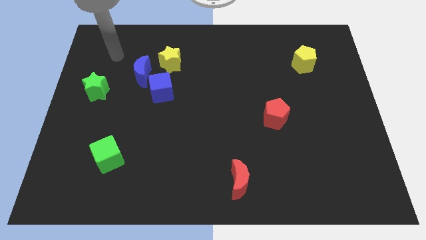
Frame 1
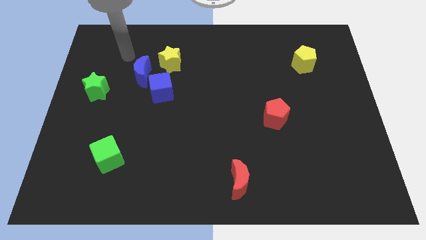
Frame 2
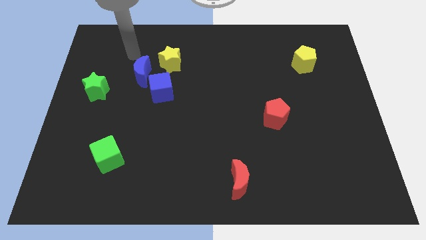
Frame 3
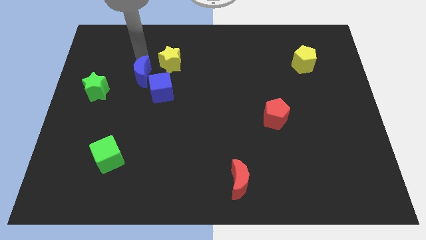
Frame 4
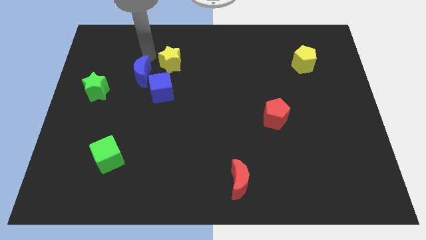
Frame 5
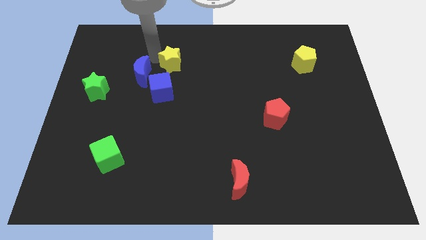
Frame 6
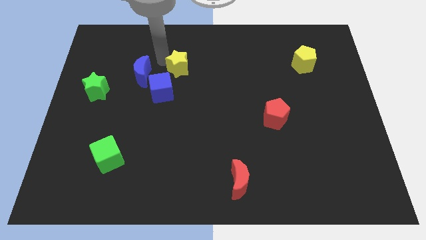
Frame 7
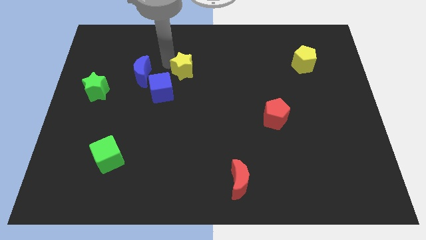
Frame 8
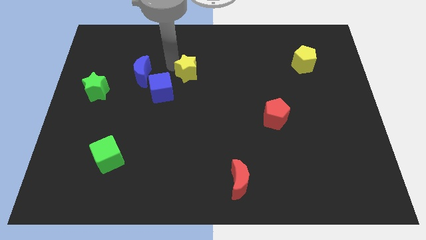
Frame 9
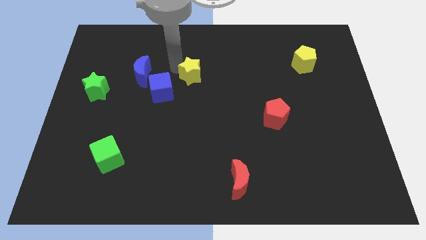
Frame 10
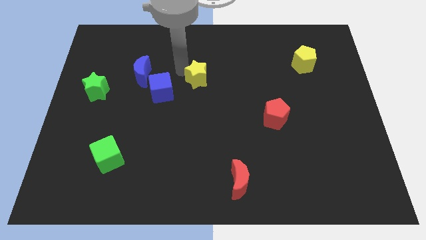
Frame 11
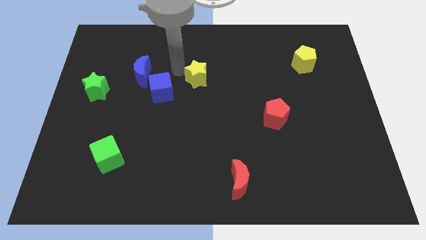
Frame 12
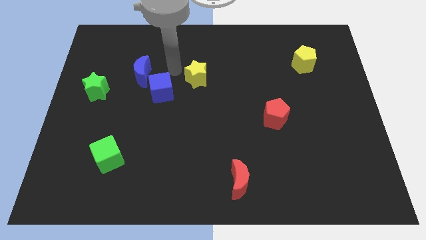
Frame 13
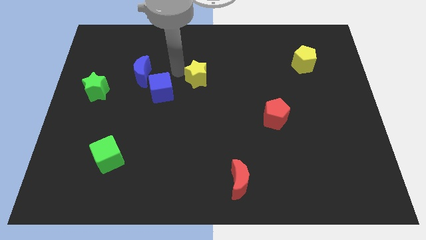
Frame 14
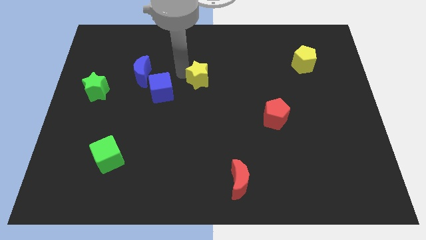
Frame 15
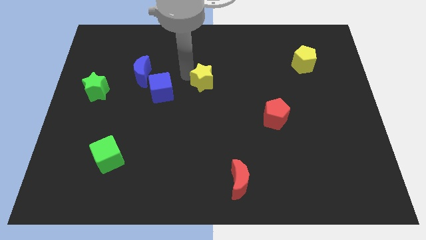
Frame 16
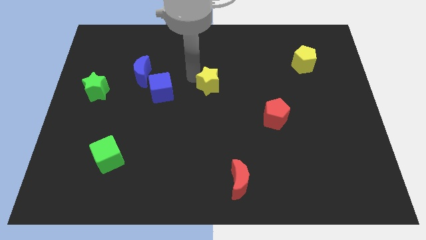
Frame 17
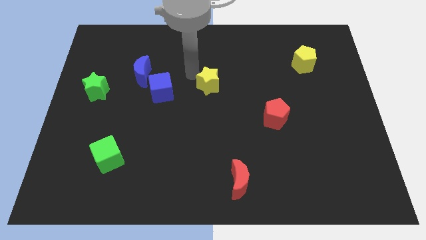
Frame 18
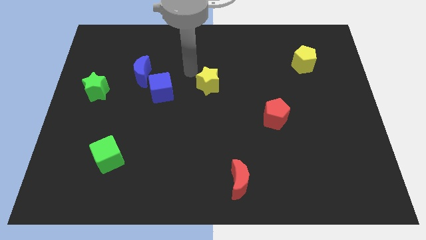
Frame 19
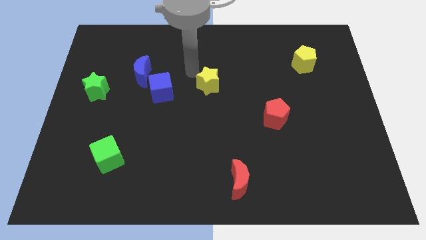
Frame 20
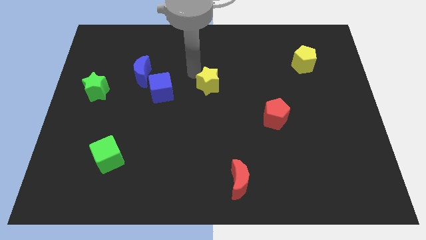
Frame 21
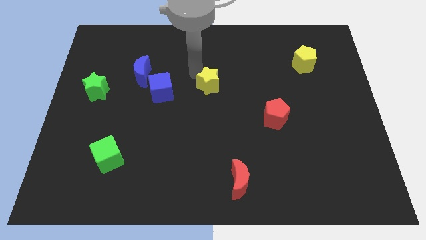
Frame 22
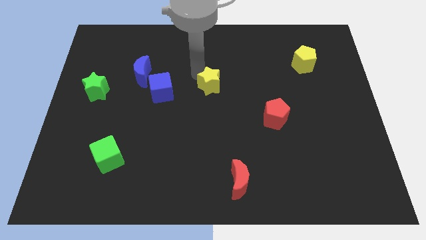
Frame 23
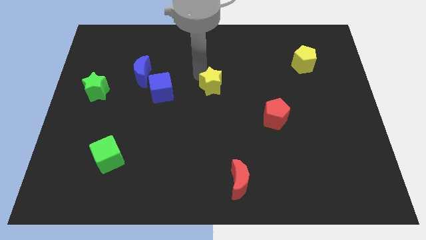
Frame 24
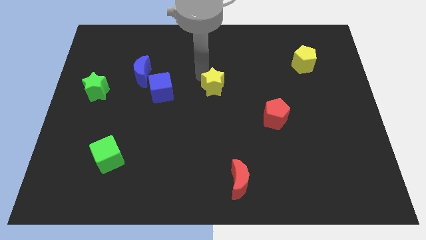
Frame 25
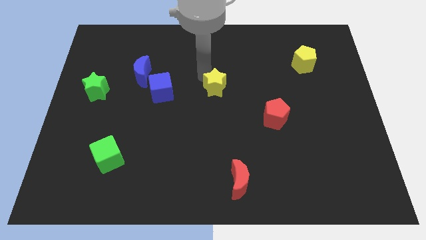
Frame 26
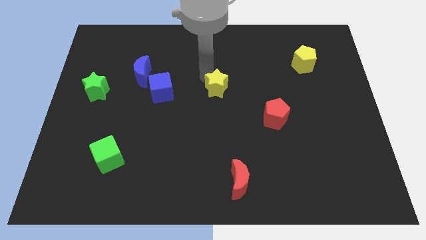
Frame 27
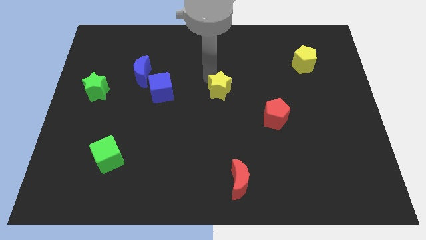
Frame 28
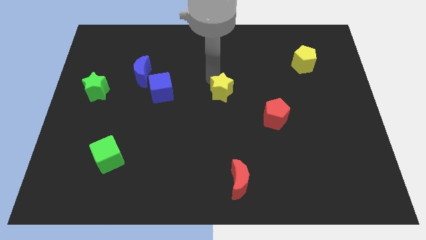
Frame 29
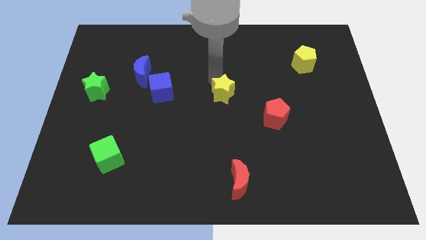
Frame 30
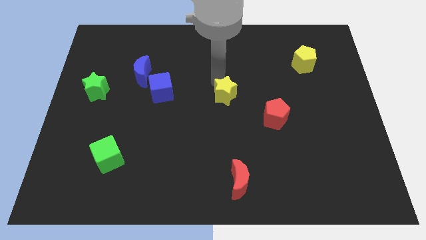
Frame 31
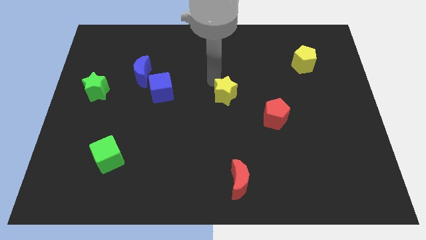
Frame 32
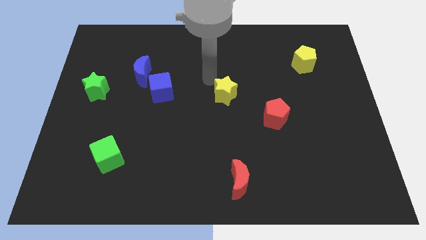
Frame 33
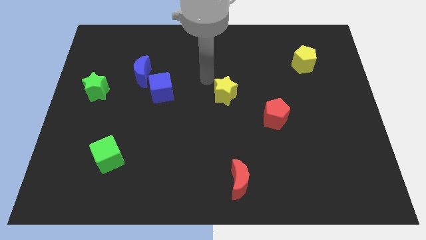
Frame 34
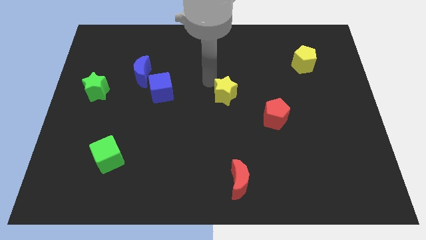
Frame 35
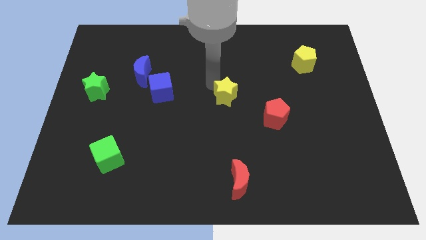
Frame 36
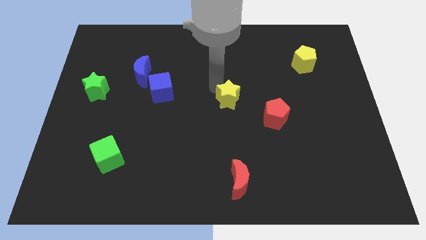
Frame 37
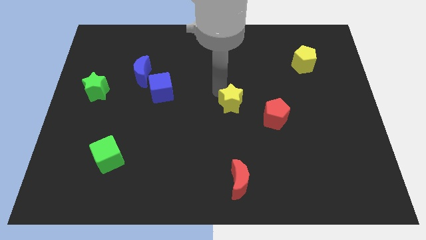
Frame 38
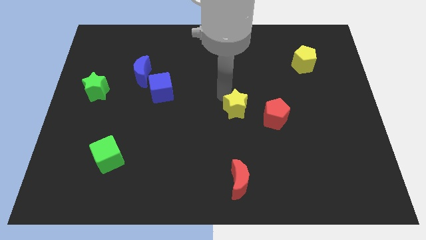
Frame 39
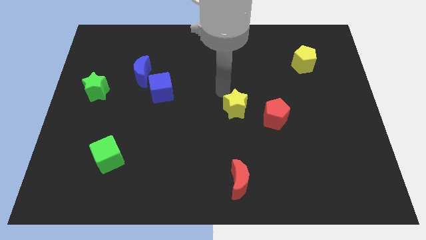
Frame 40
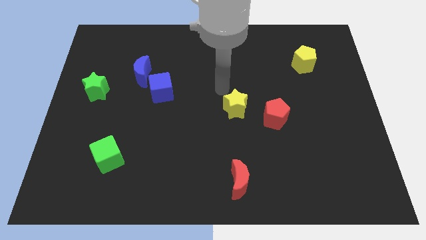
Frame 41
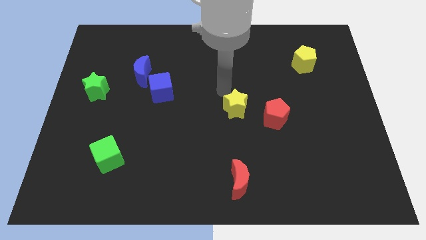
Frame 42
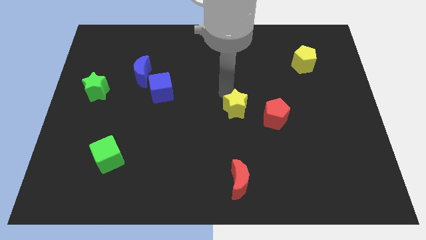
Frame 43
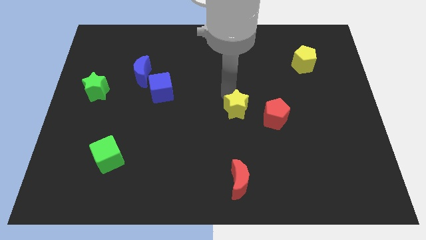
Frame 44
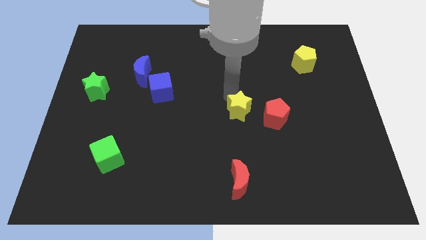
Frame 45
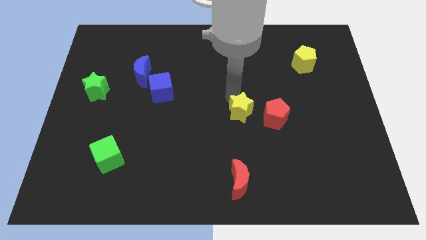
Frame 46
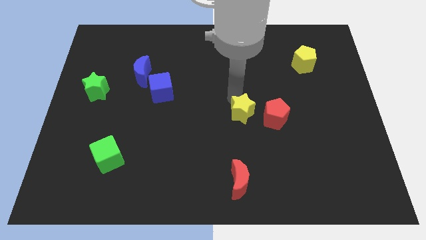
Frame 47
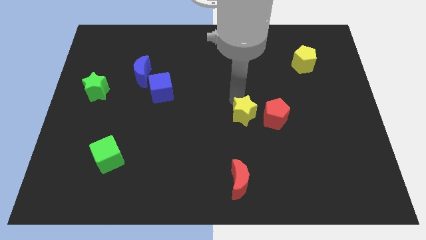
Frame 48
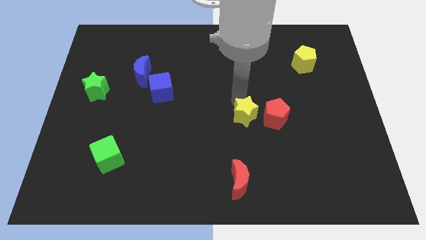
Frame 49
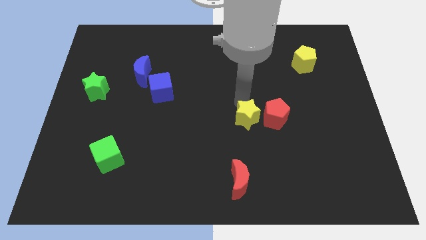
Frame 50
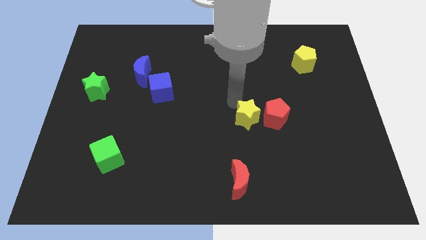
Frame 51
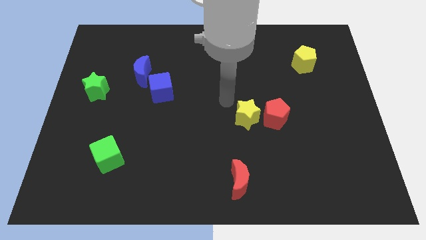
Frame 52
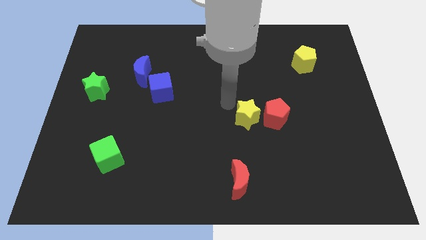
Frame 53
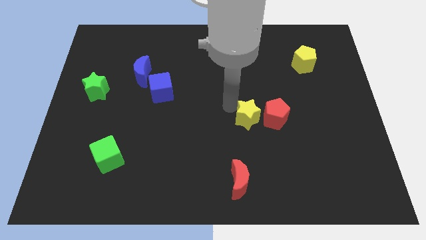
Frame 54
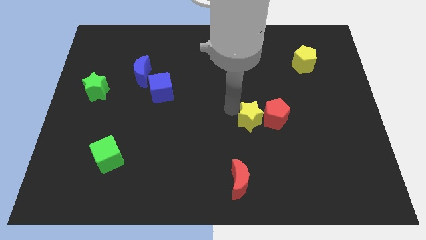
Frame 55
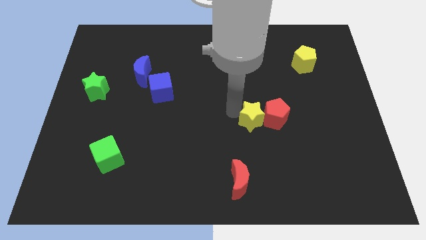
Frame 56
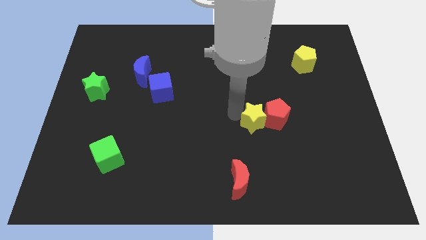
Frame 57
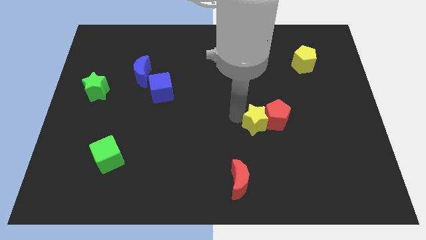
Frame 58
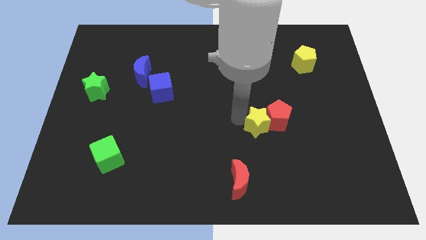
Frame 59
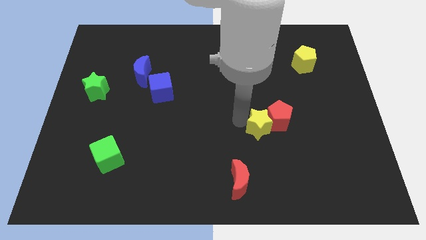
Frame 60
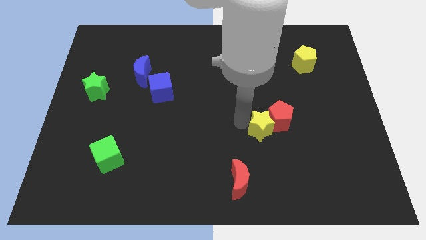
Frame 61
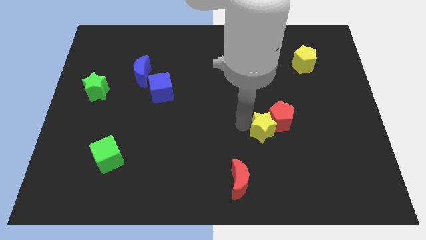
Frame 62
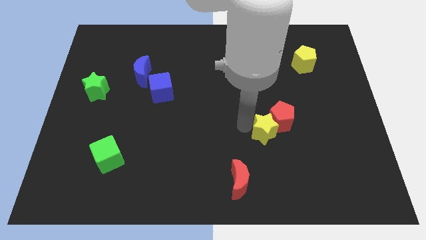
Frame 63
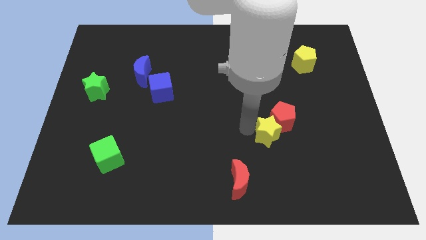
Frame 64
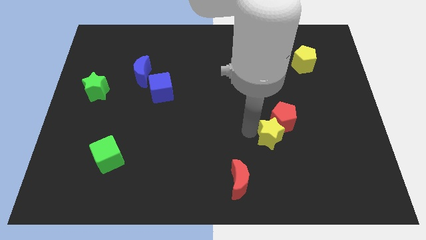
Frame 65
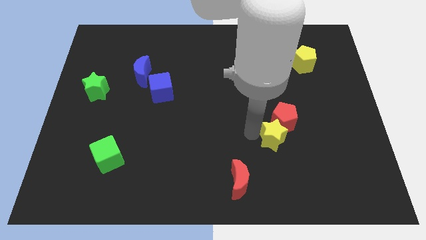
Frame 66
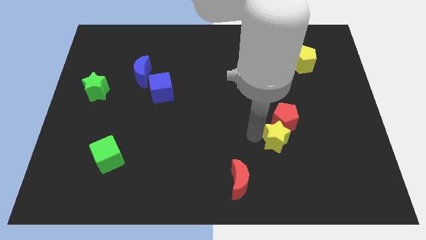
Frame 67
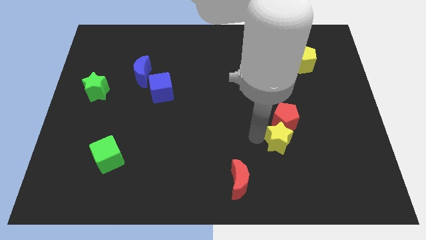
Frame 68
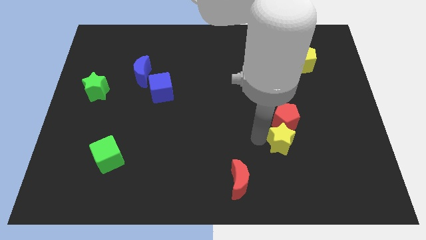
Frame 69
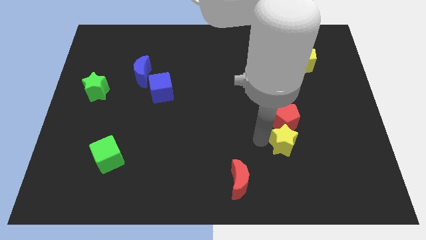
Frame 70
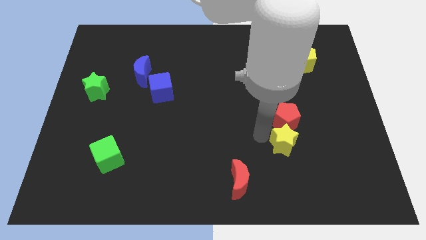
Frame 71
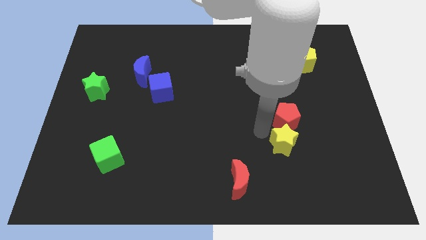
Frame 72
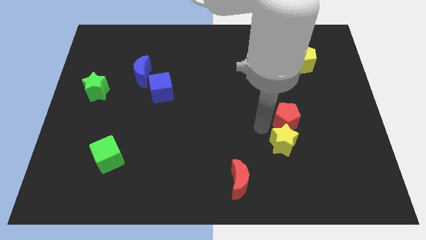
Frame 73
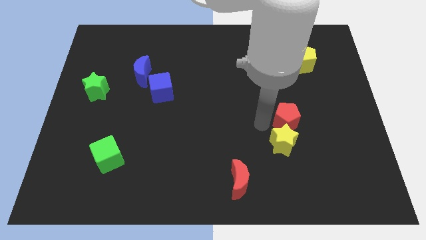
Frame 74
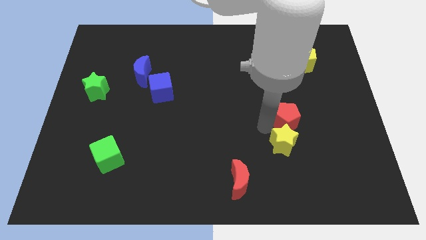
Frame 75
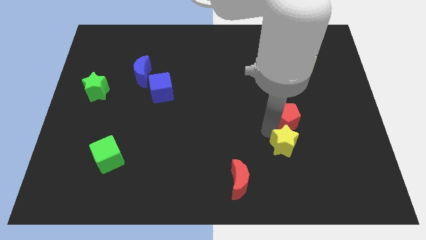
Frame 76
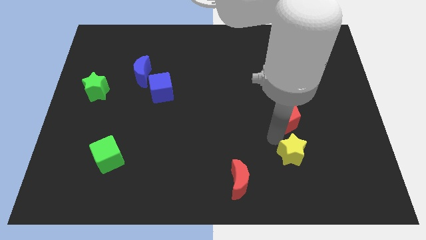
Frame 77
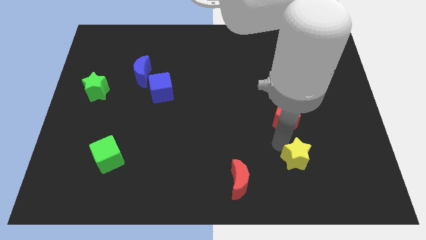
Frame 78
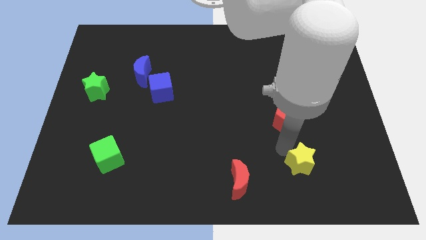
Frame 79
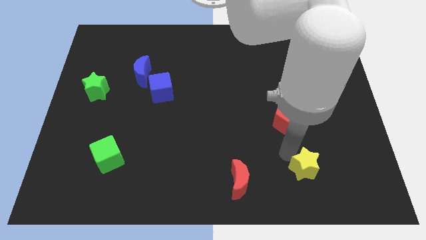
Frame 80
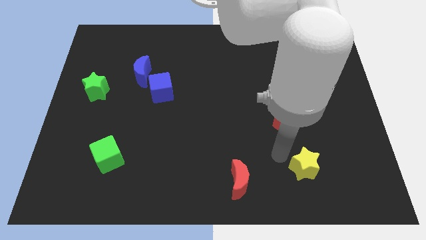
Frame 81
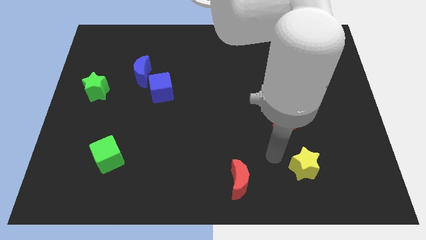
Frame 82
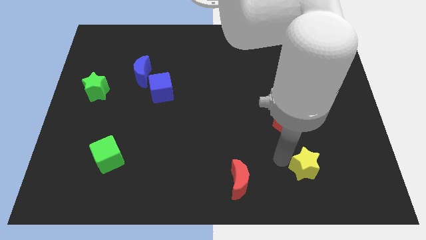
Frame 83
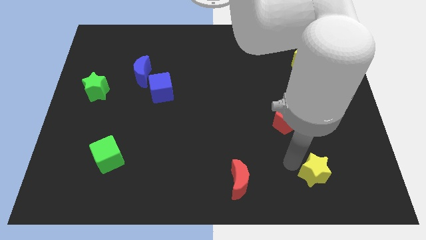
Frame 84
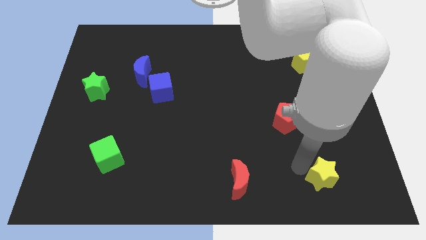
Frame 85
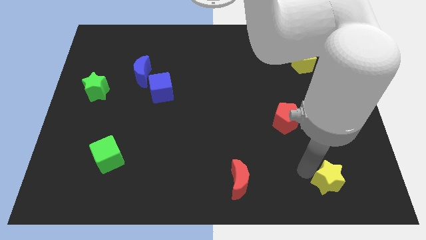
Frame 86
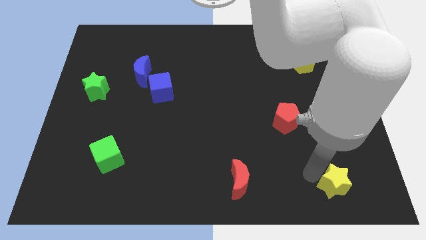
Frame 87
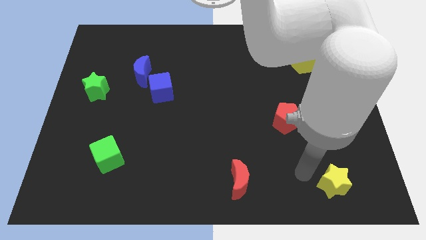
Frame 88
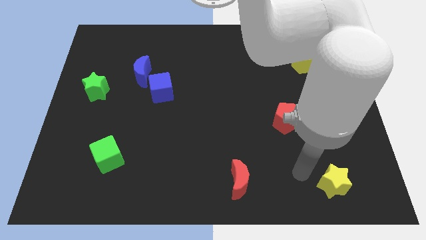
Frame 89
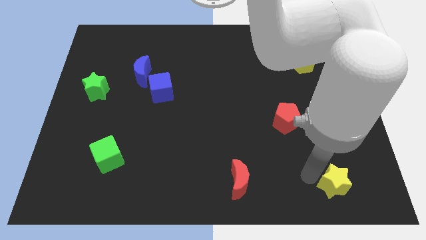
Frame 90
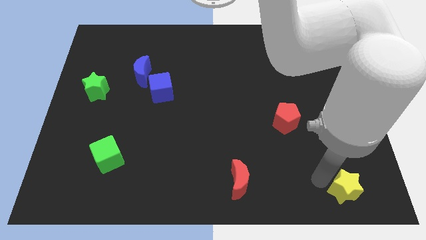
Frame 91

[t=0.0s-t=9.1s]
push the yellow star to the bottom right corner
